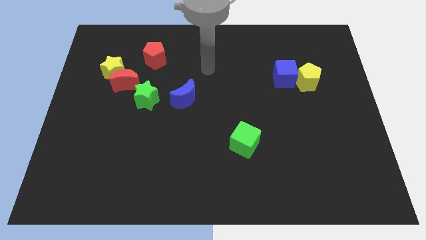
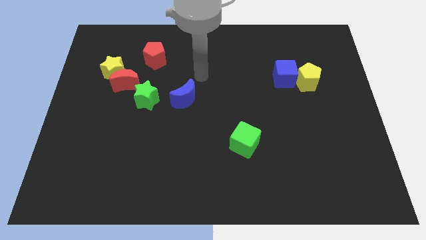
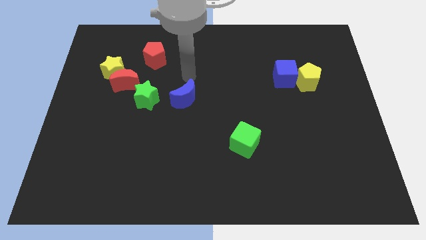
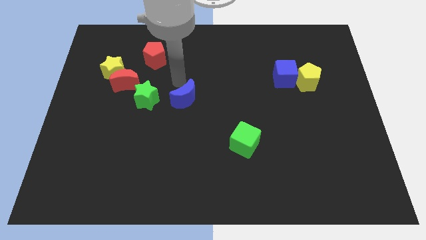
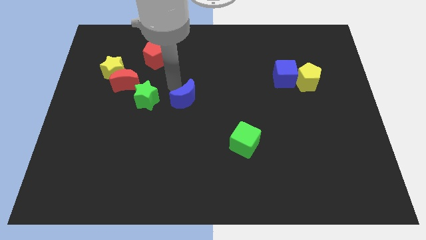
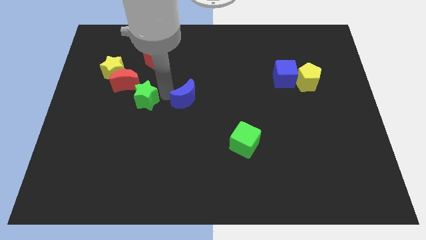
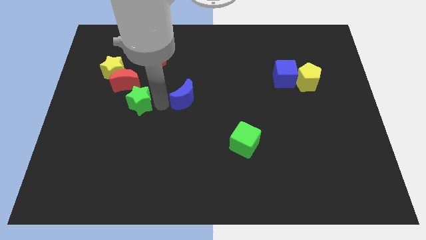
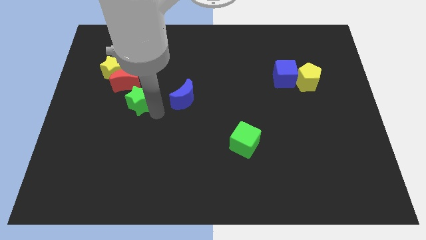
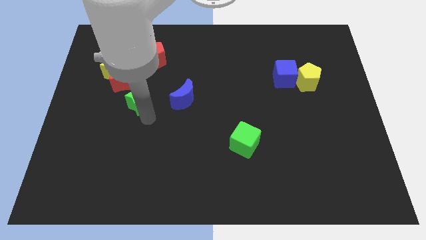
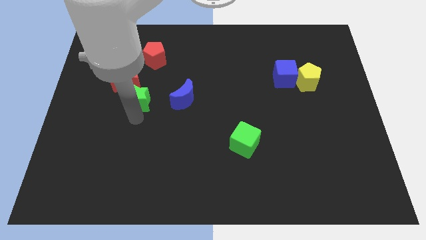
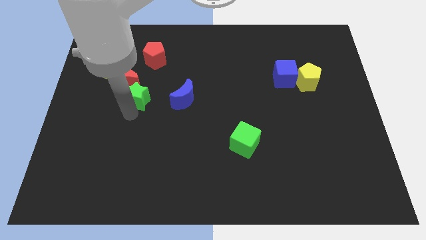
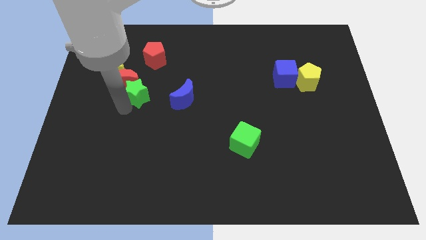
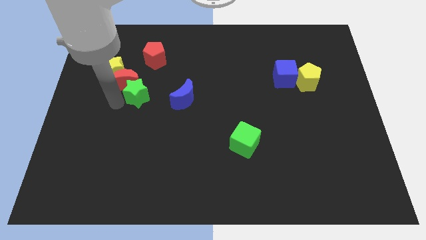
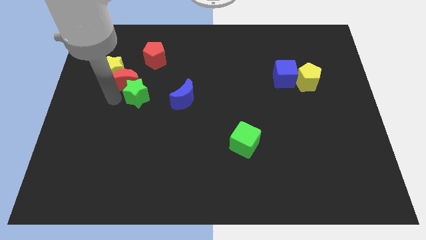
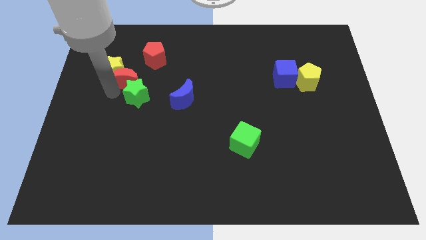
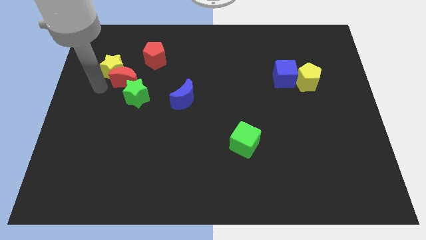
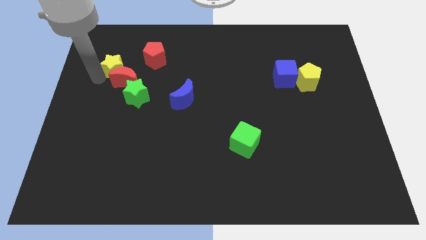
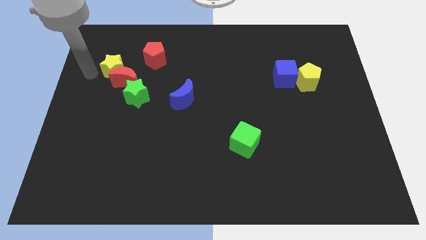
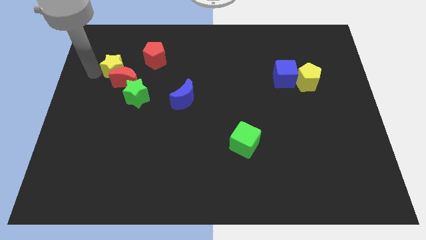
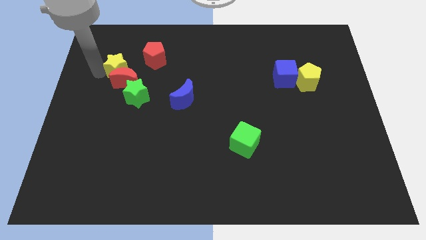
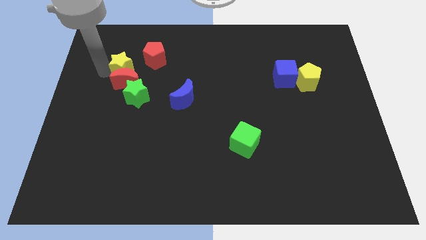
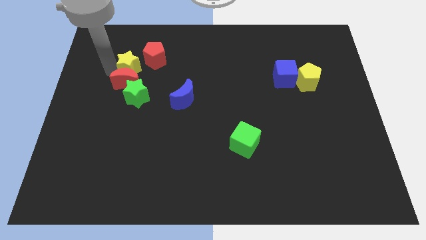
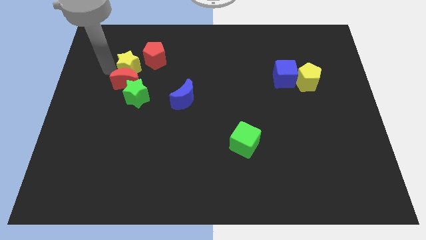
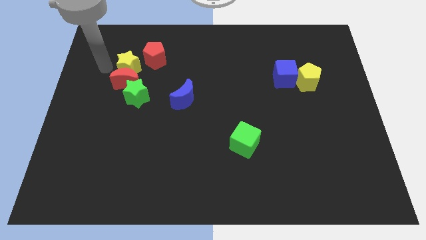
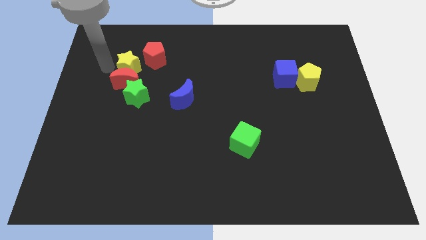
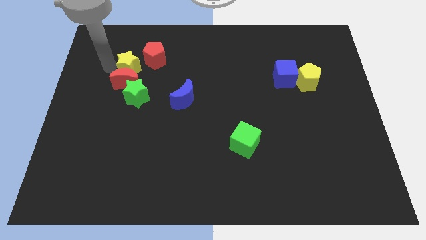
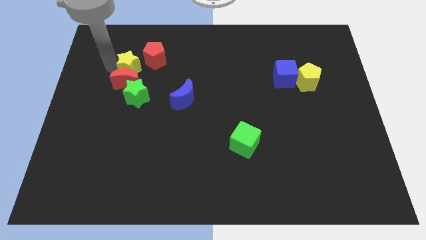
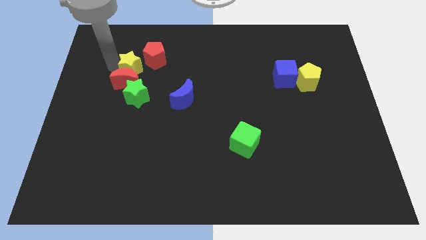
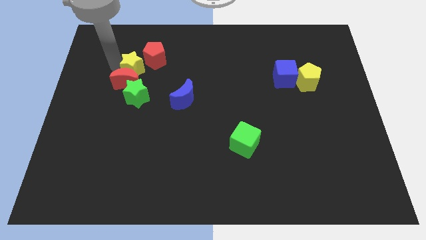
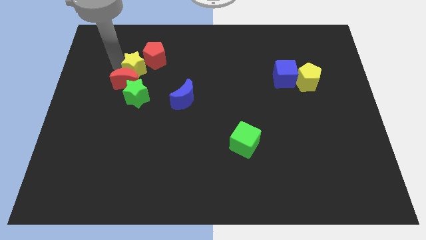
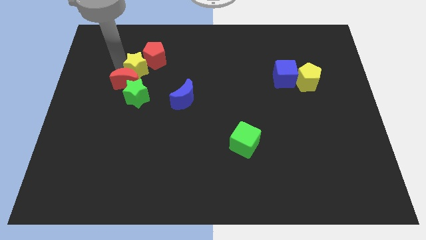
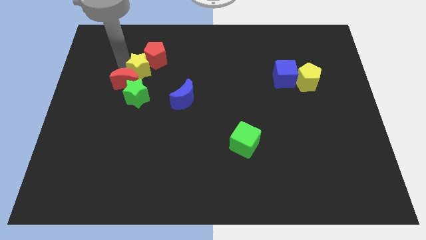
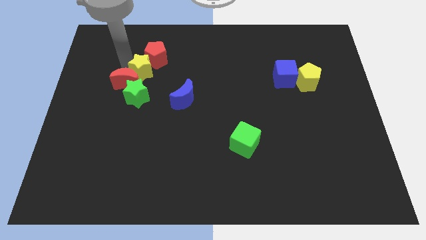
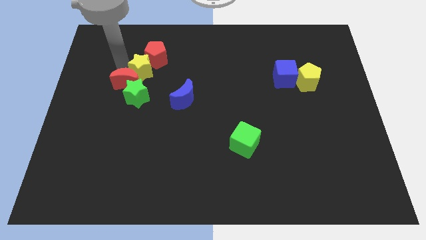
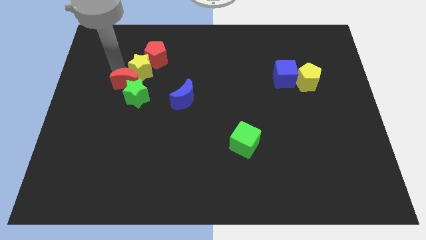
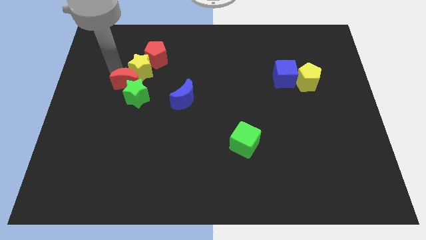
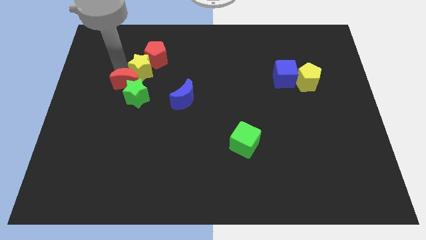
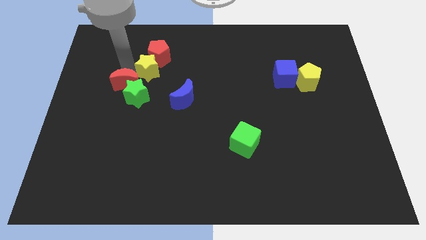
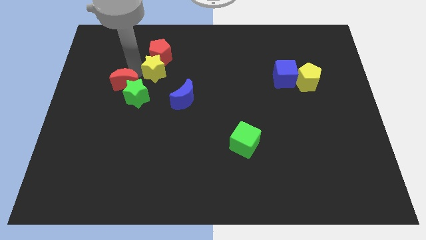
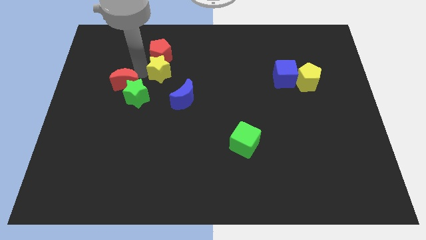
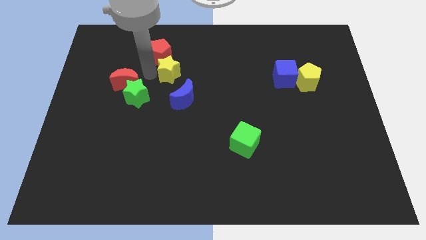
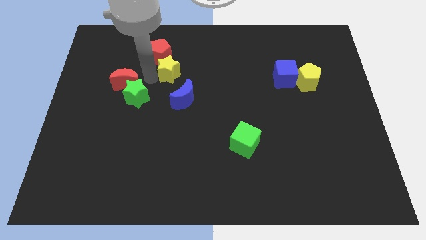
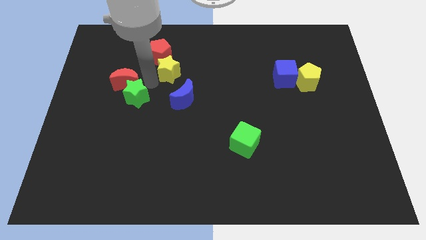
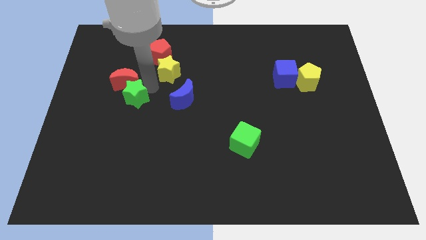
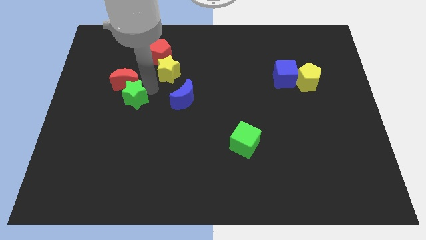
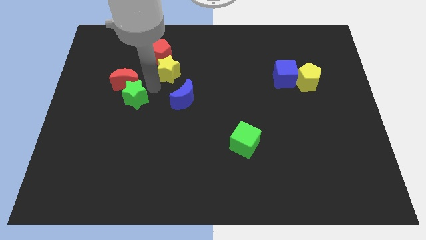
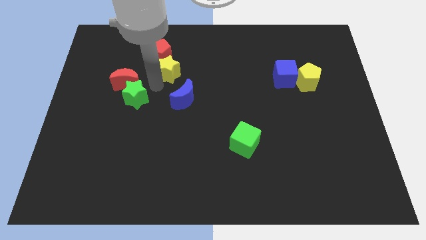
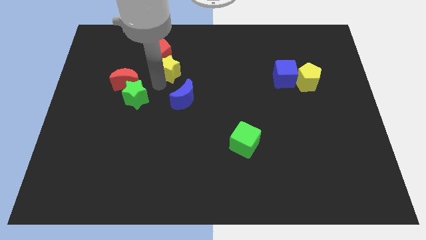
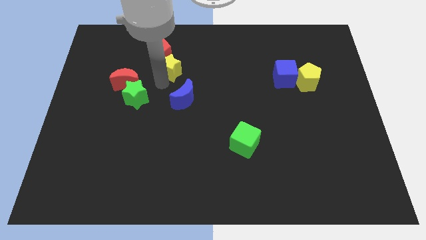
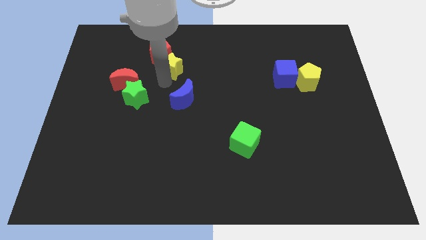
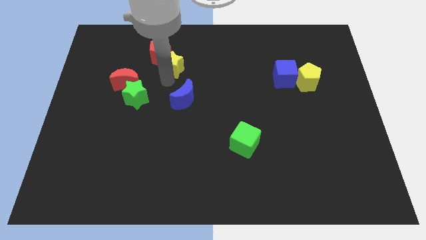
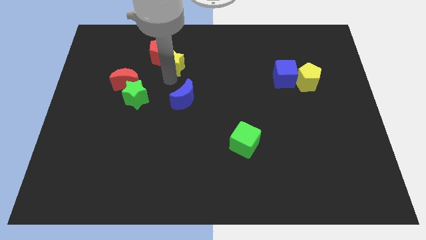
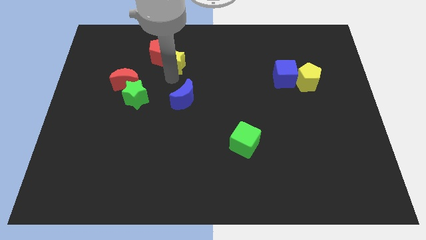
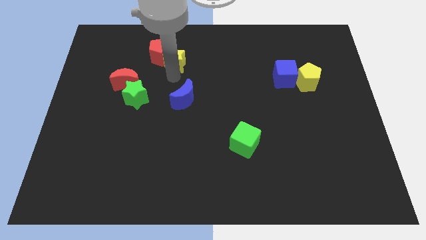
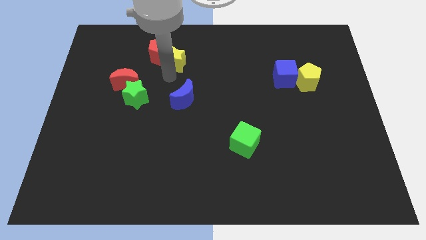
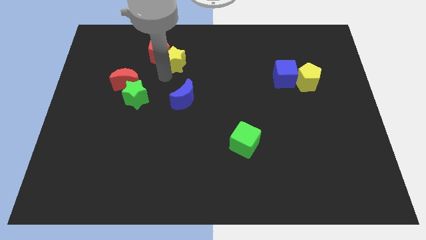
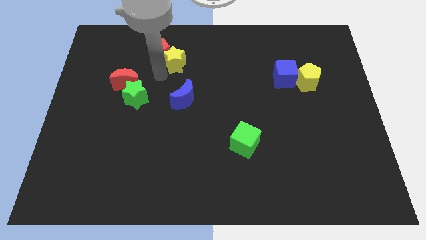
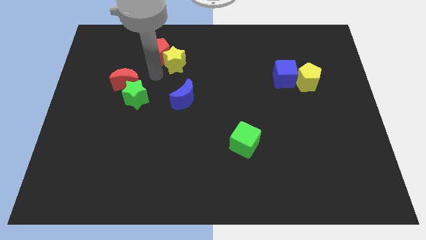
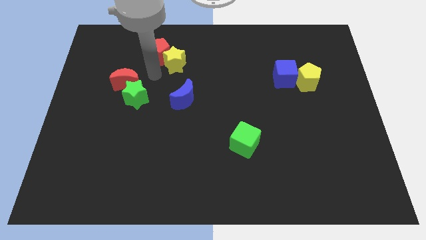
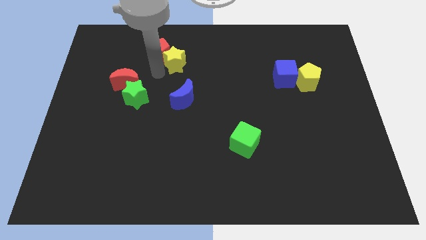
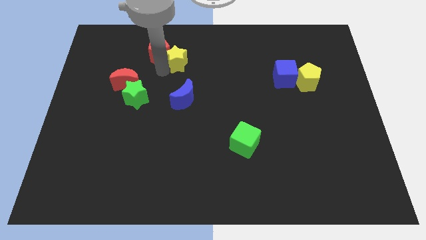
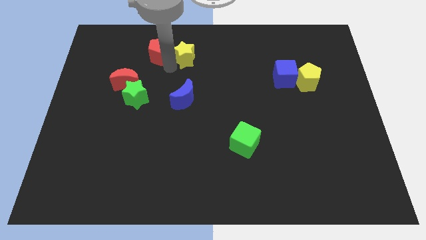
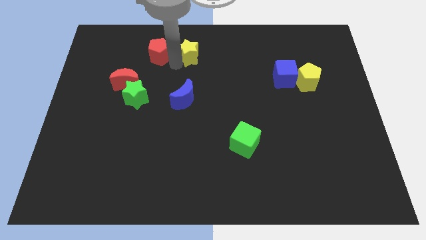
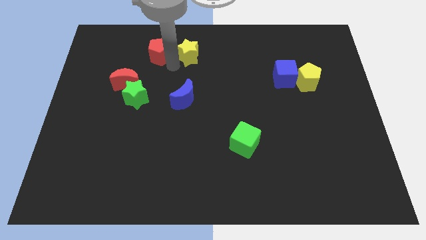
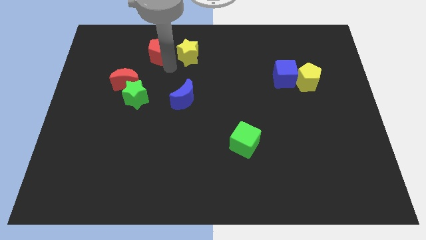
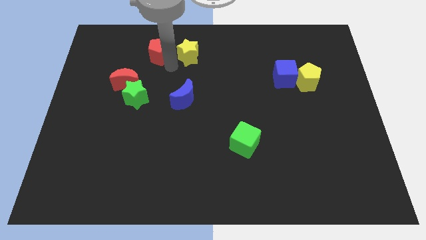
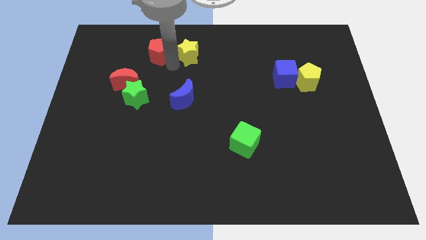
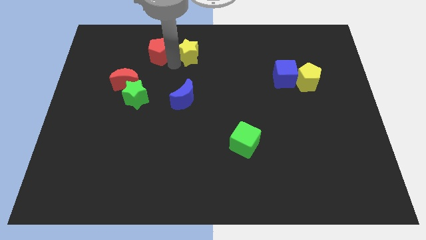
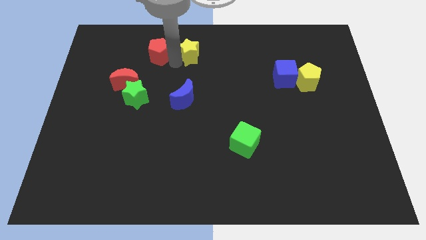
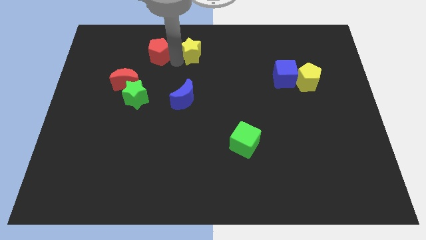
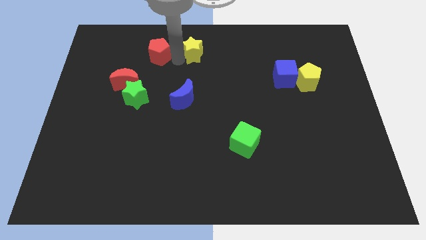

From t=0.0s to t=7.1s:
put the yellow star to the towards your base
